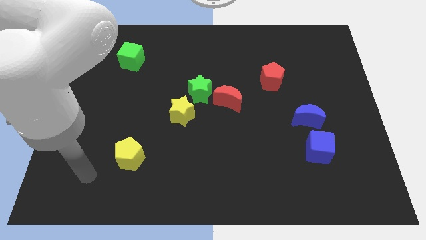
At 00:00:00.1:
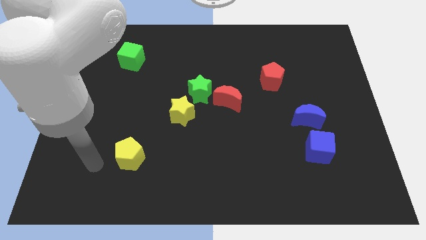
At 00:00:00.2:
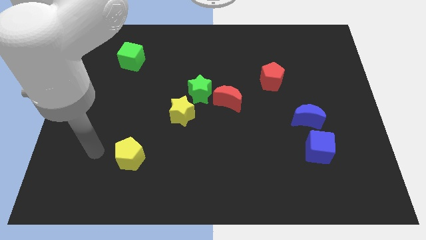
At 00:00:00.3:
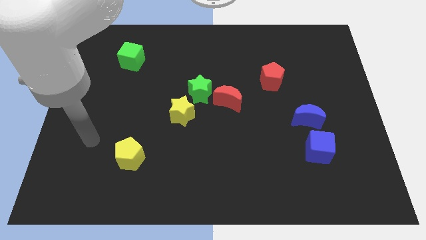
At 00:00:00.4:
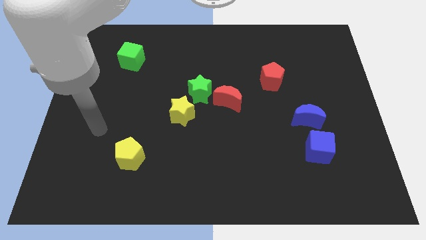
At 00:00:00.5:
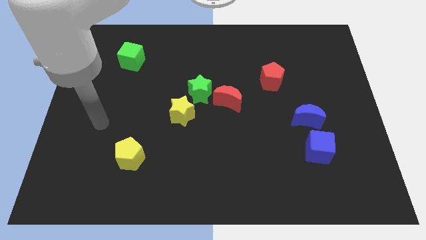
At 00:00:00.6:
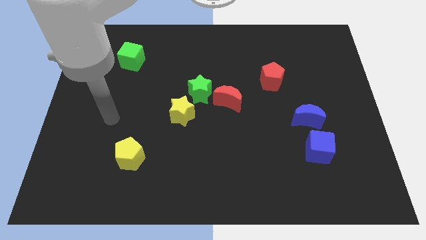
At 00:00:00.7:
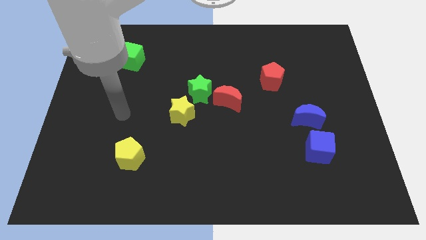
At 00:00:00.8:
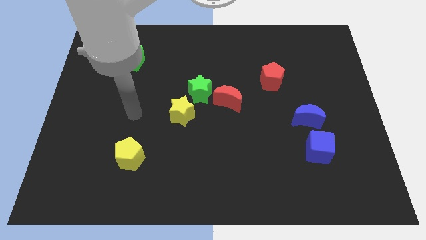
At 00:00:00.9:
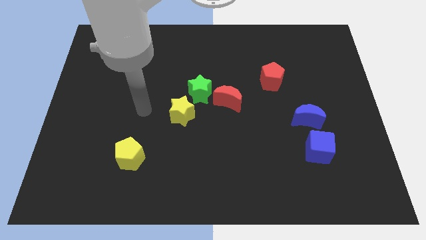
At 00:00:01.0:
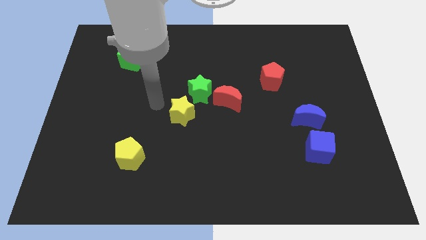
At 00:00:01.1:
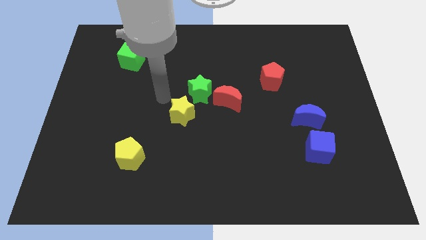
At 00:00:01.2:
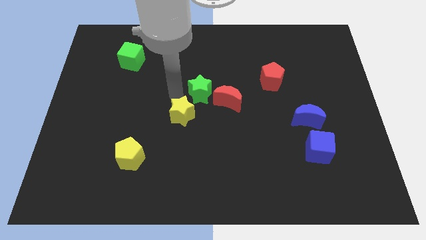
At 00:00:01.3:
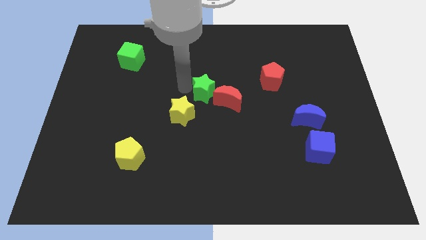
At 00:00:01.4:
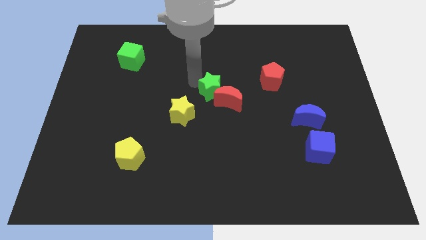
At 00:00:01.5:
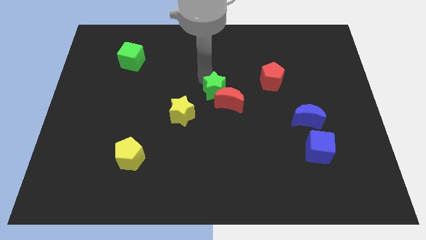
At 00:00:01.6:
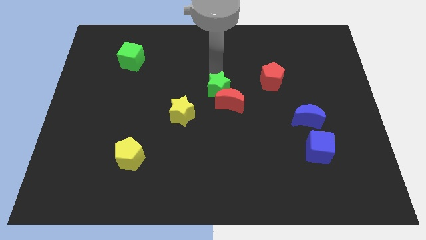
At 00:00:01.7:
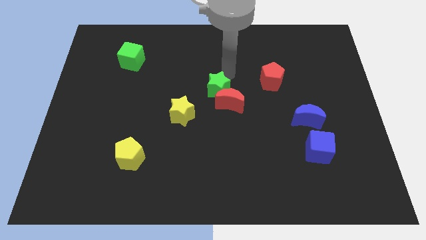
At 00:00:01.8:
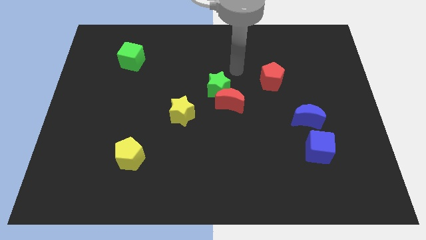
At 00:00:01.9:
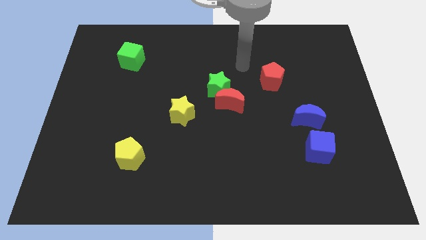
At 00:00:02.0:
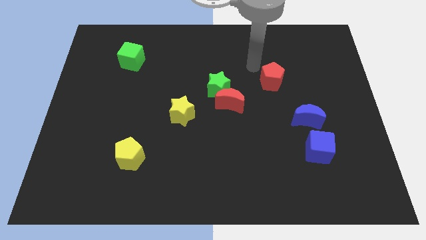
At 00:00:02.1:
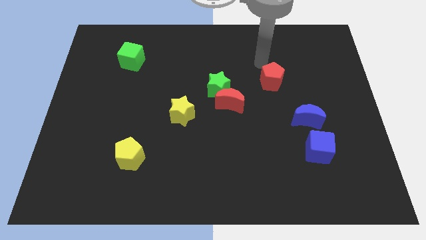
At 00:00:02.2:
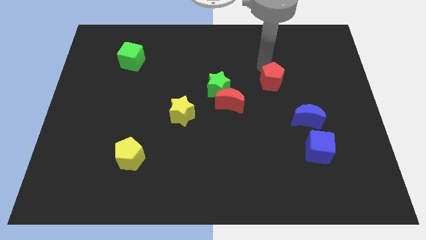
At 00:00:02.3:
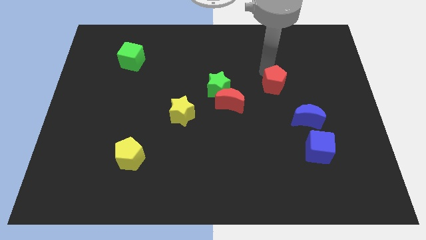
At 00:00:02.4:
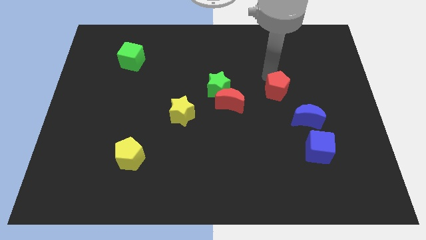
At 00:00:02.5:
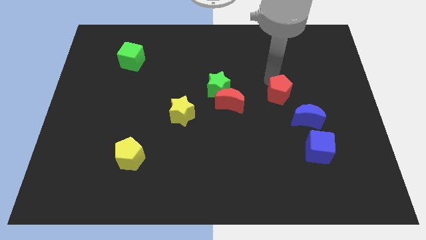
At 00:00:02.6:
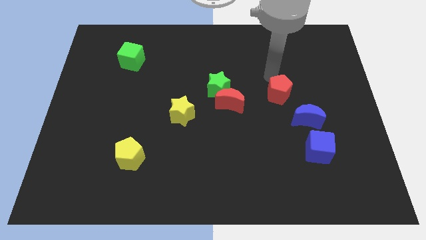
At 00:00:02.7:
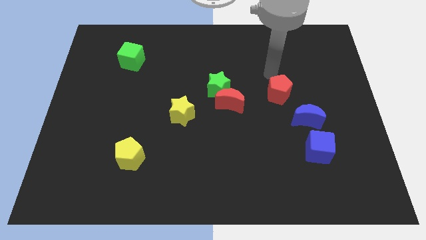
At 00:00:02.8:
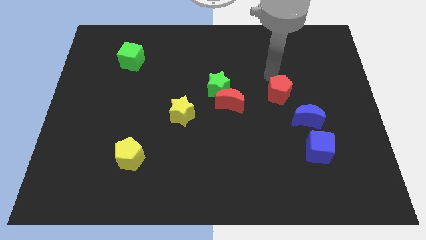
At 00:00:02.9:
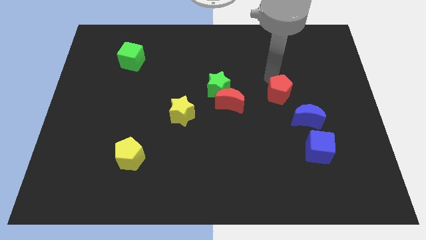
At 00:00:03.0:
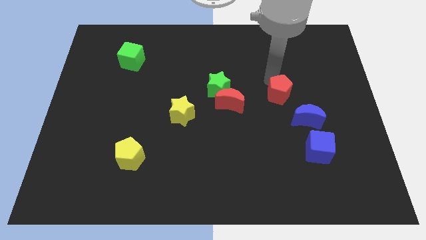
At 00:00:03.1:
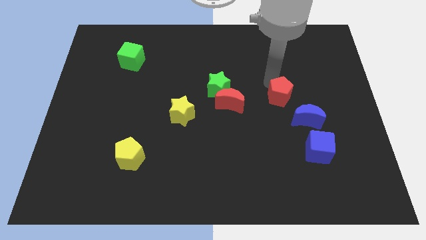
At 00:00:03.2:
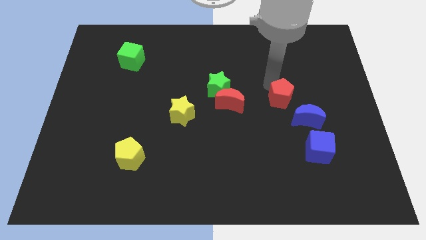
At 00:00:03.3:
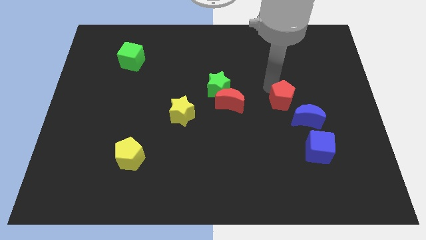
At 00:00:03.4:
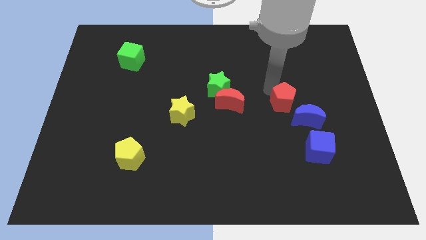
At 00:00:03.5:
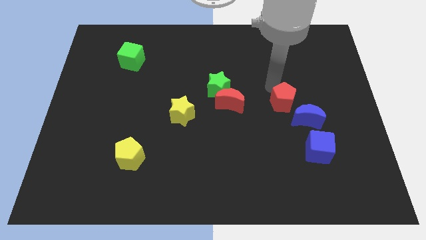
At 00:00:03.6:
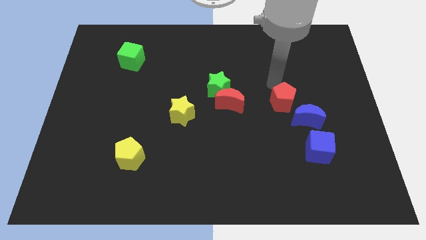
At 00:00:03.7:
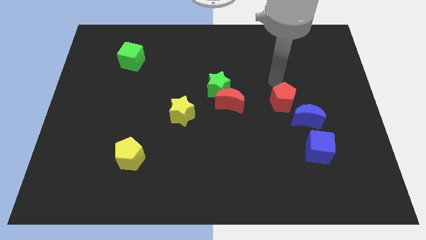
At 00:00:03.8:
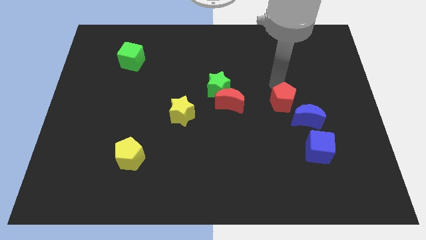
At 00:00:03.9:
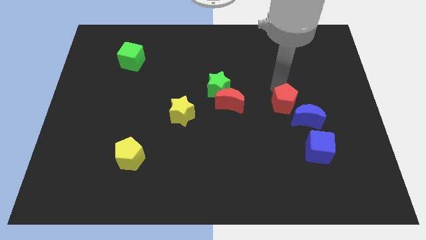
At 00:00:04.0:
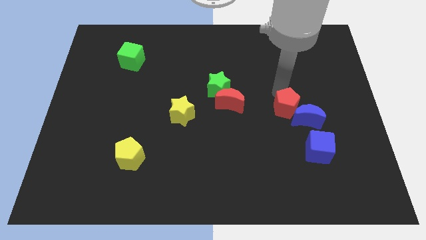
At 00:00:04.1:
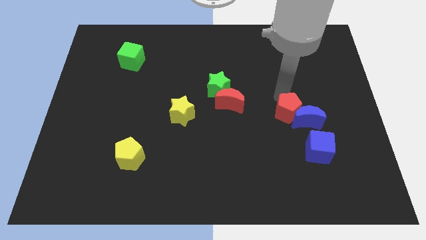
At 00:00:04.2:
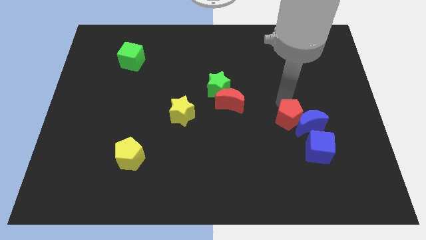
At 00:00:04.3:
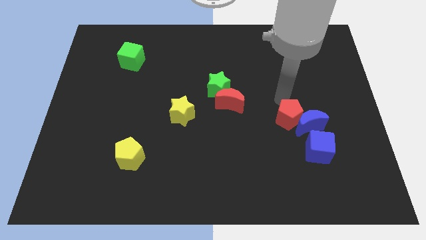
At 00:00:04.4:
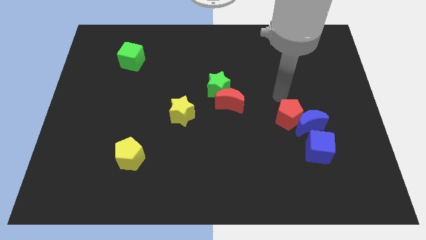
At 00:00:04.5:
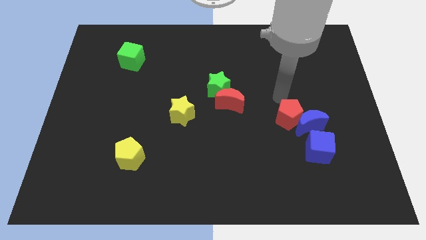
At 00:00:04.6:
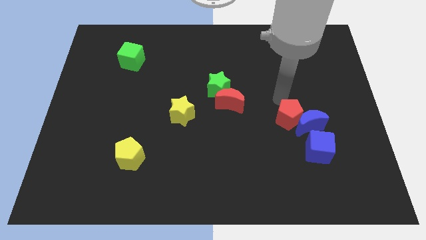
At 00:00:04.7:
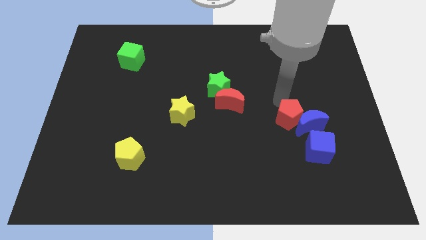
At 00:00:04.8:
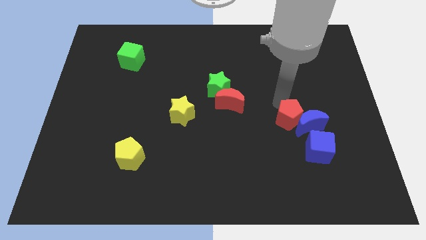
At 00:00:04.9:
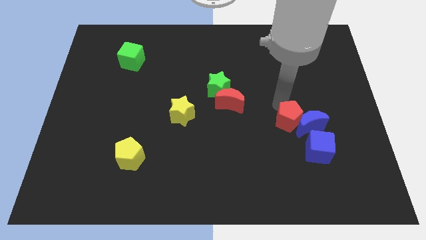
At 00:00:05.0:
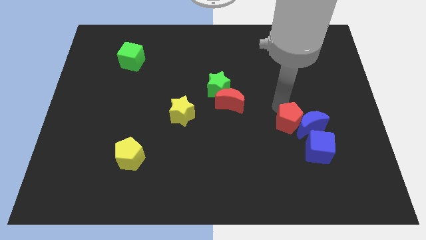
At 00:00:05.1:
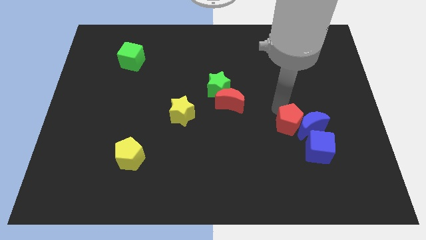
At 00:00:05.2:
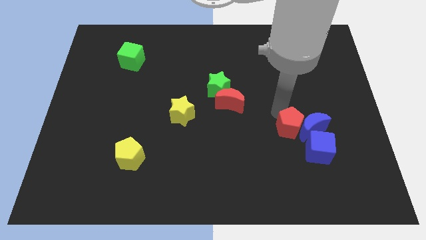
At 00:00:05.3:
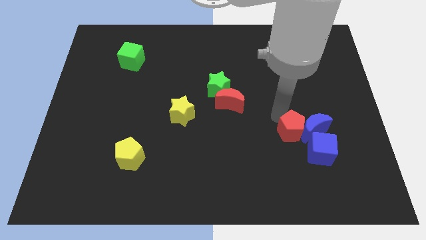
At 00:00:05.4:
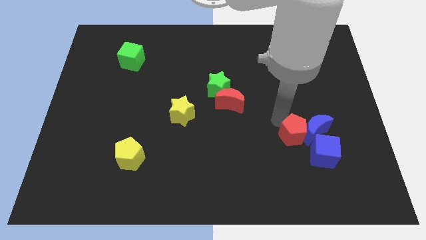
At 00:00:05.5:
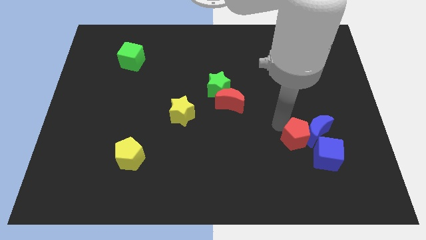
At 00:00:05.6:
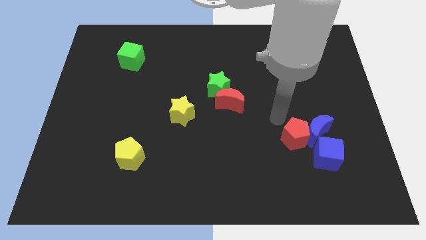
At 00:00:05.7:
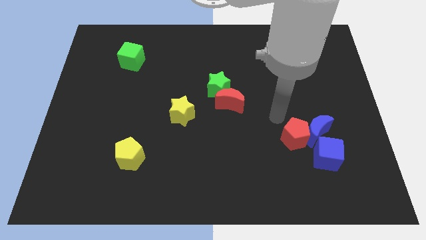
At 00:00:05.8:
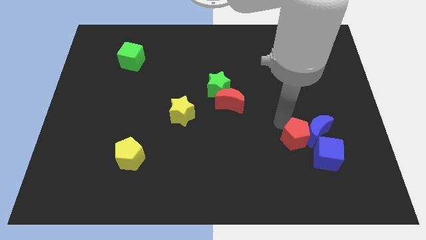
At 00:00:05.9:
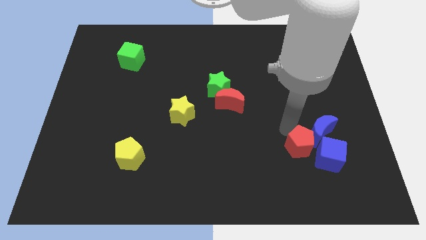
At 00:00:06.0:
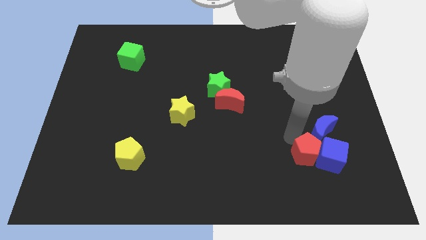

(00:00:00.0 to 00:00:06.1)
push the red pentagon to the bottom of the blue moon

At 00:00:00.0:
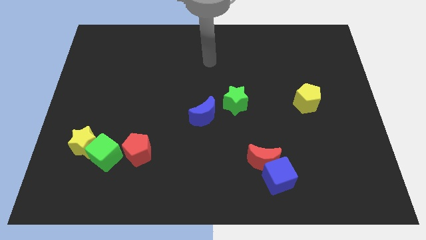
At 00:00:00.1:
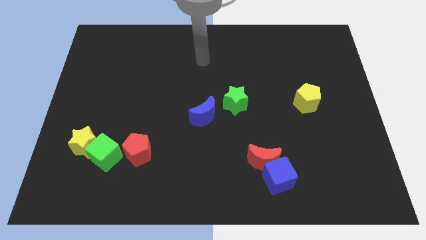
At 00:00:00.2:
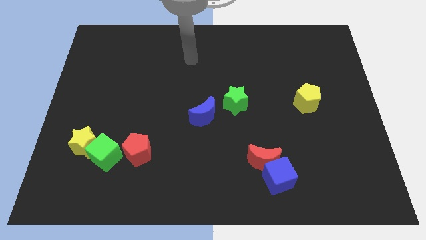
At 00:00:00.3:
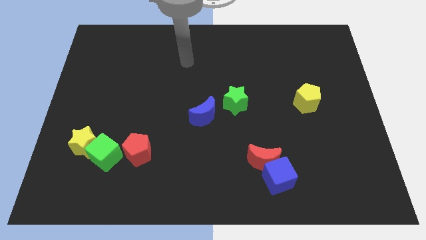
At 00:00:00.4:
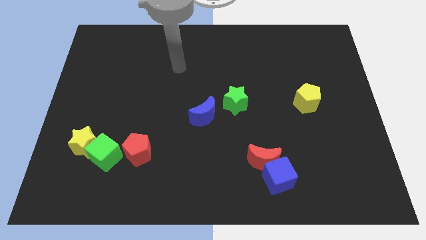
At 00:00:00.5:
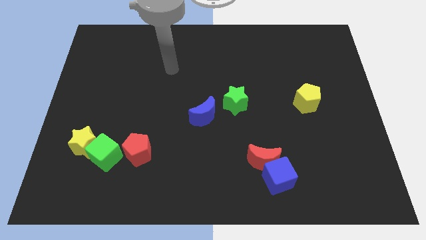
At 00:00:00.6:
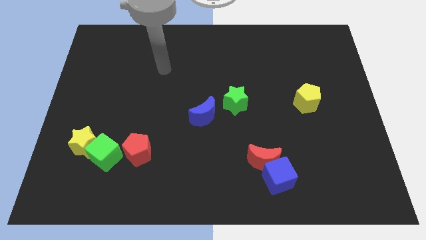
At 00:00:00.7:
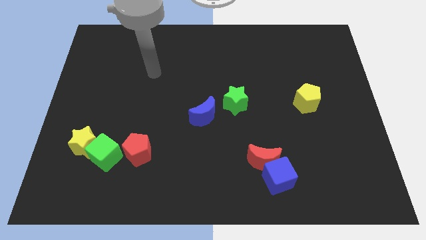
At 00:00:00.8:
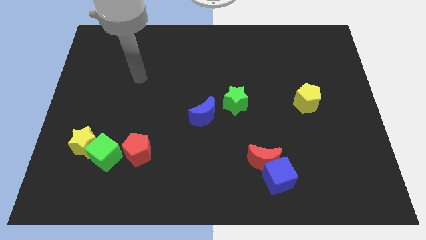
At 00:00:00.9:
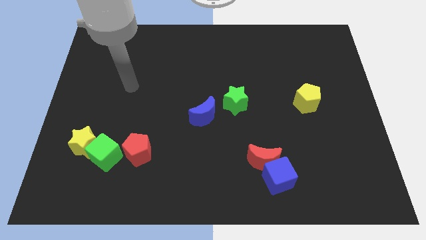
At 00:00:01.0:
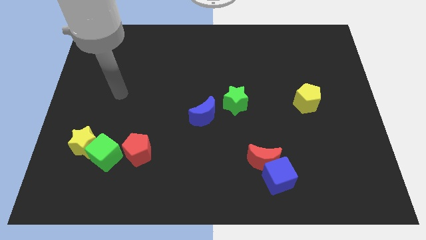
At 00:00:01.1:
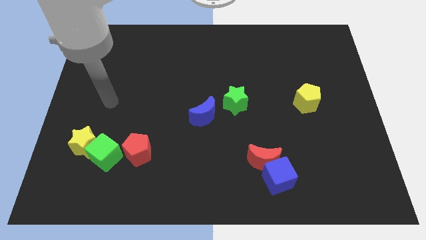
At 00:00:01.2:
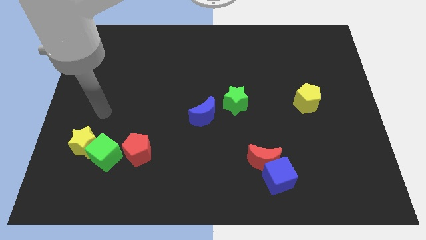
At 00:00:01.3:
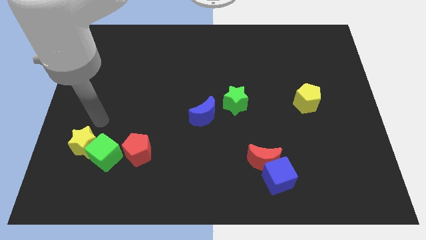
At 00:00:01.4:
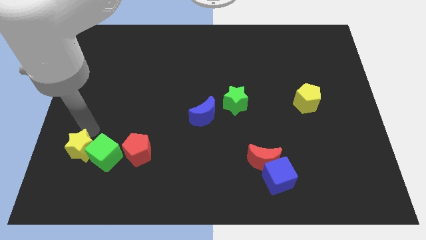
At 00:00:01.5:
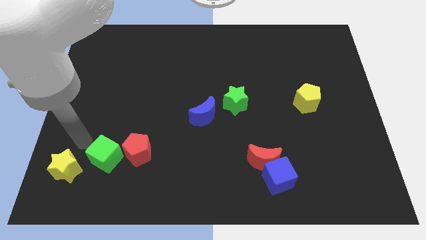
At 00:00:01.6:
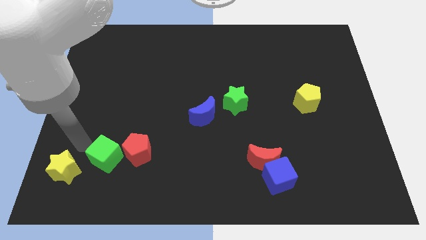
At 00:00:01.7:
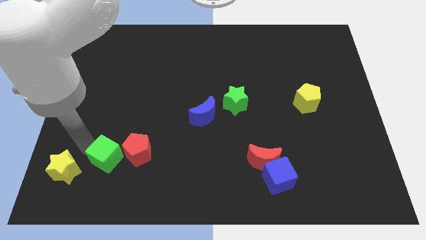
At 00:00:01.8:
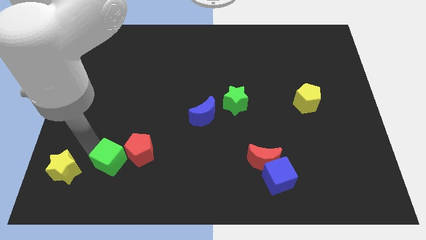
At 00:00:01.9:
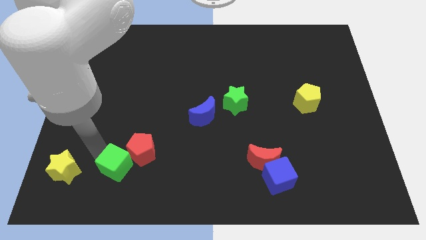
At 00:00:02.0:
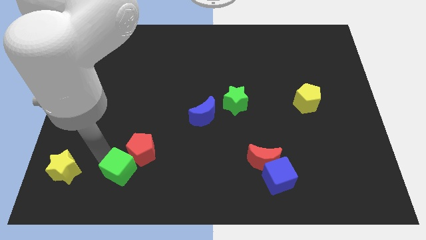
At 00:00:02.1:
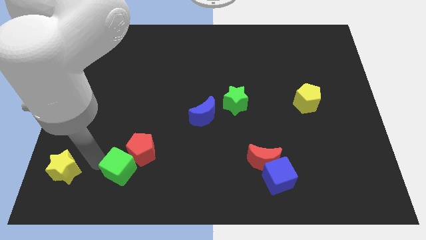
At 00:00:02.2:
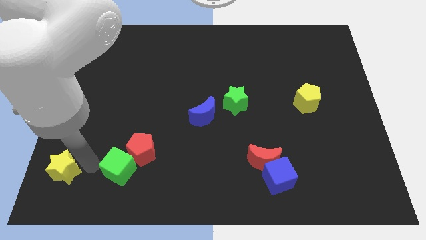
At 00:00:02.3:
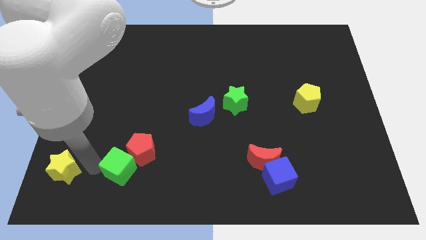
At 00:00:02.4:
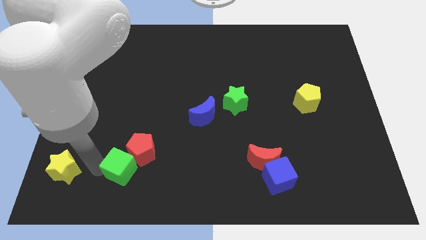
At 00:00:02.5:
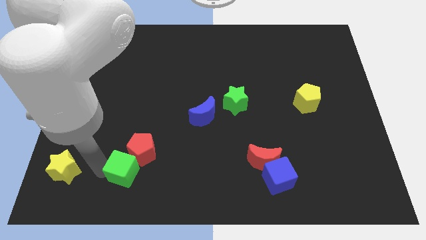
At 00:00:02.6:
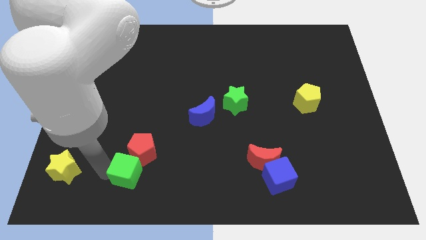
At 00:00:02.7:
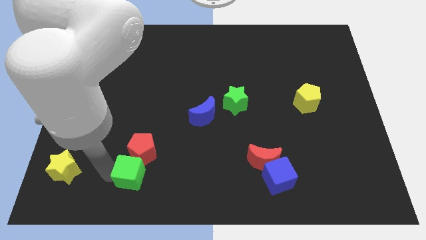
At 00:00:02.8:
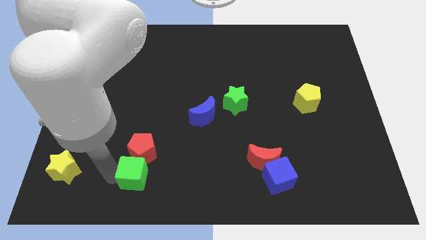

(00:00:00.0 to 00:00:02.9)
push the green cube to the bottom right side of the red pentagon
